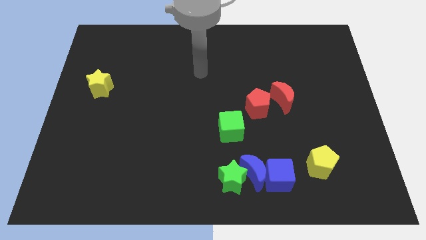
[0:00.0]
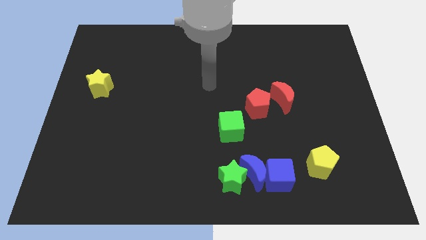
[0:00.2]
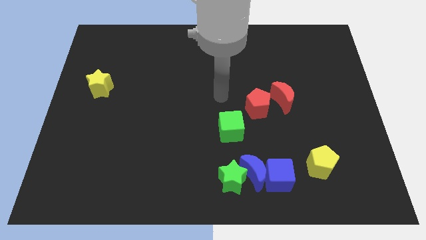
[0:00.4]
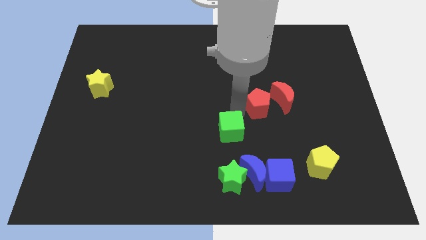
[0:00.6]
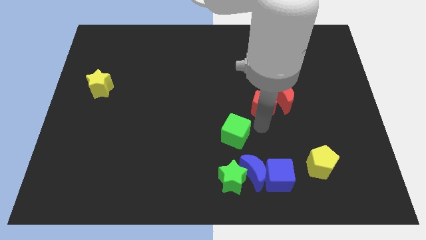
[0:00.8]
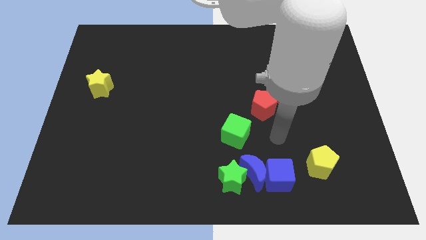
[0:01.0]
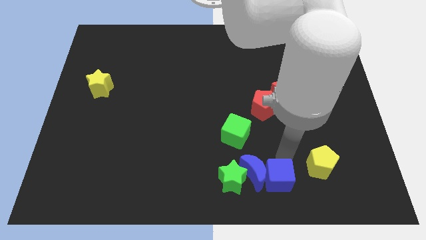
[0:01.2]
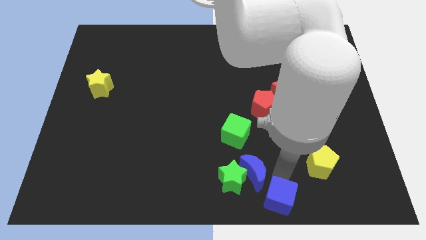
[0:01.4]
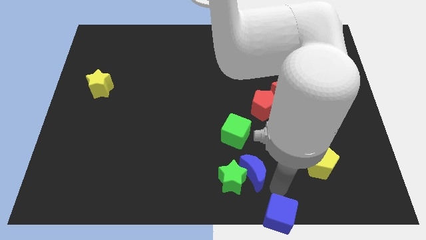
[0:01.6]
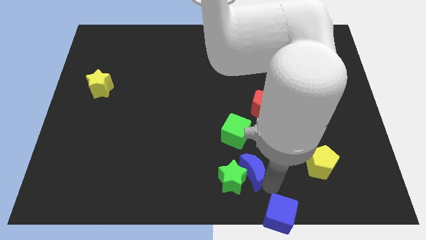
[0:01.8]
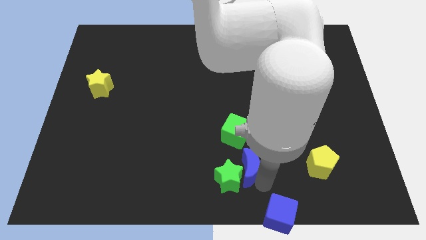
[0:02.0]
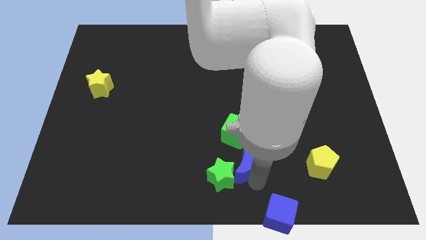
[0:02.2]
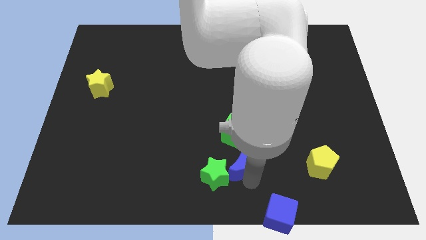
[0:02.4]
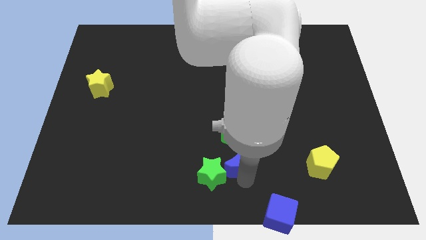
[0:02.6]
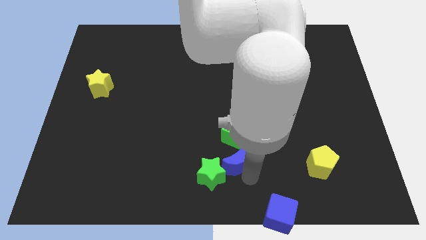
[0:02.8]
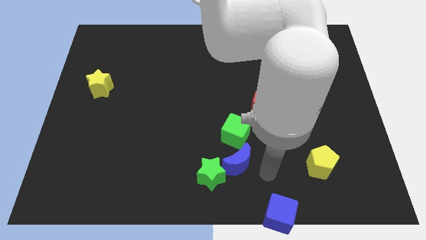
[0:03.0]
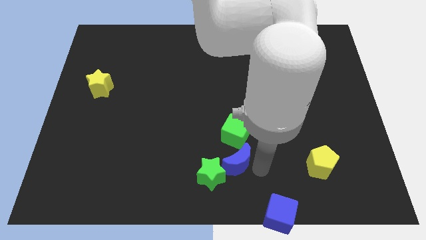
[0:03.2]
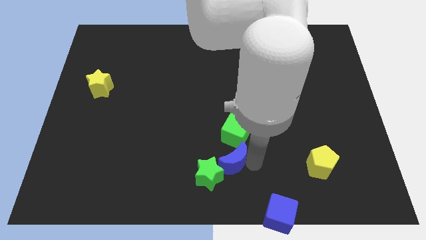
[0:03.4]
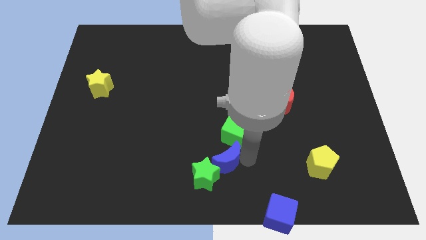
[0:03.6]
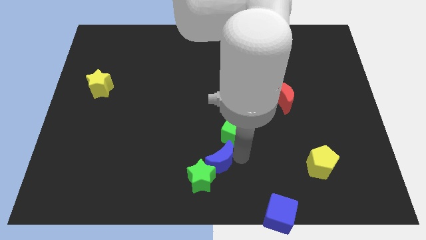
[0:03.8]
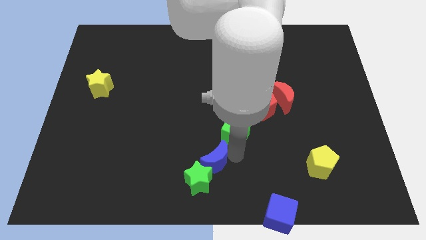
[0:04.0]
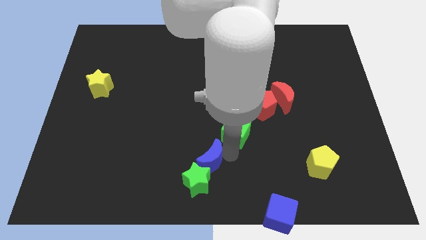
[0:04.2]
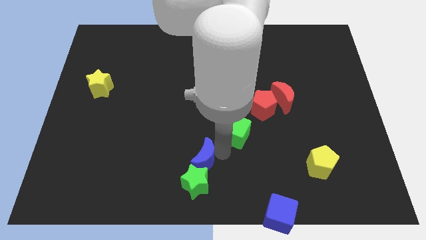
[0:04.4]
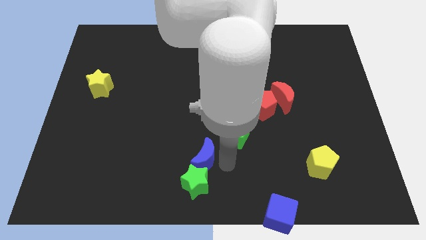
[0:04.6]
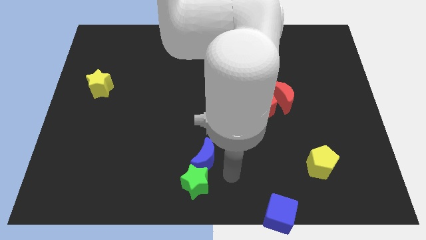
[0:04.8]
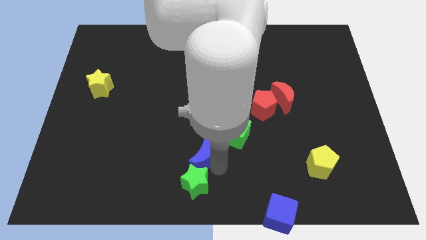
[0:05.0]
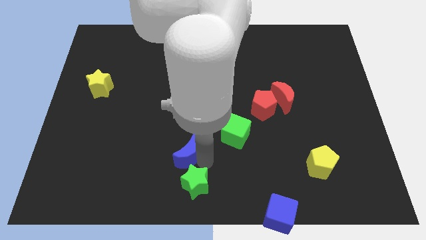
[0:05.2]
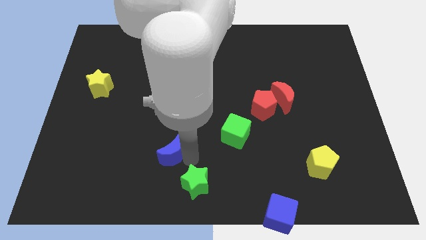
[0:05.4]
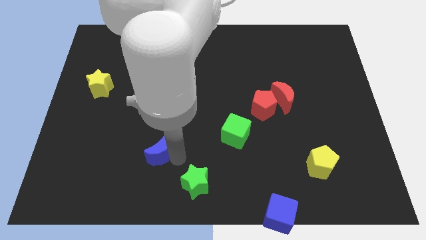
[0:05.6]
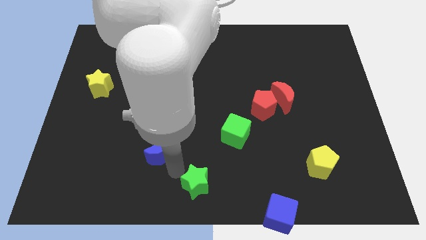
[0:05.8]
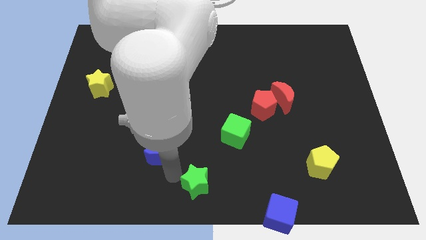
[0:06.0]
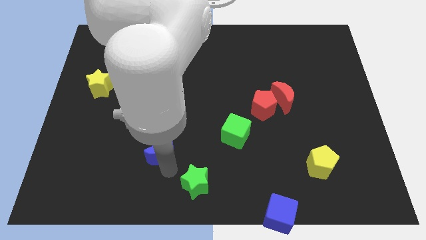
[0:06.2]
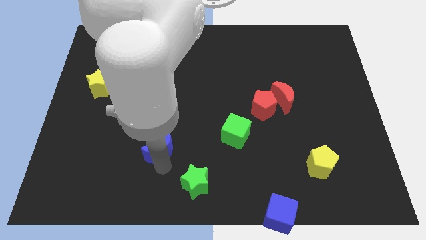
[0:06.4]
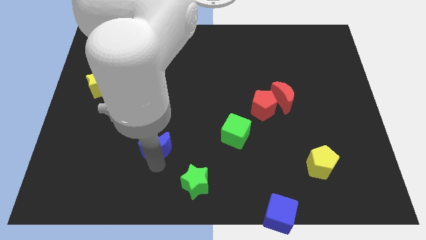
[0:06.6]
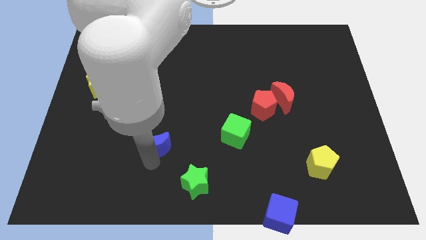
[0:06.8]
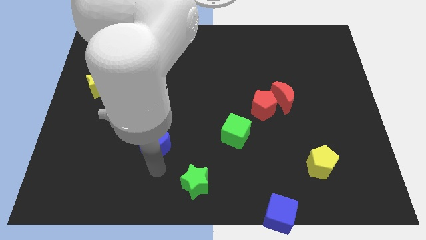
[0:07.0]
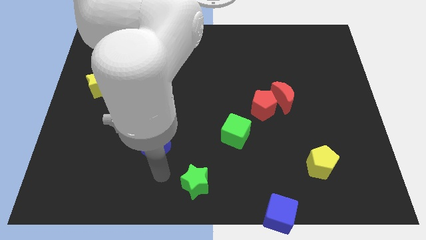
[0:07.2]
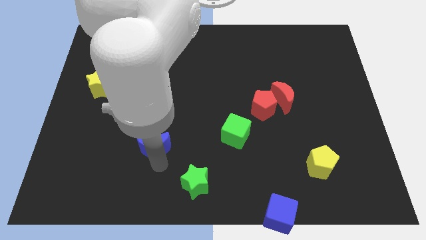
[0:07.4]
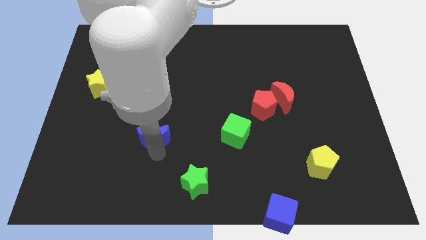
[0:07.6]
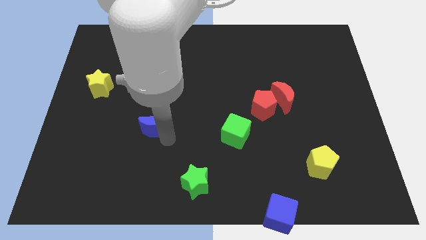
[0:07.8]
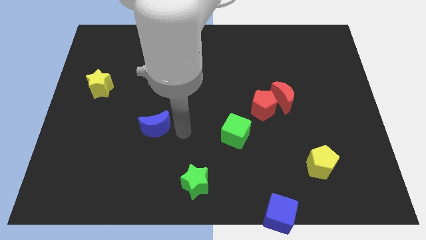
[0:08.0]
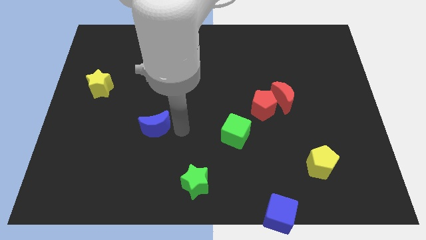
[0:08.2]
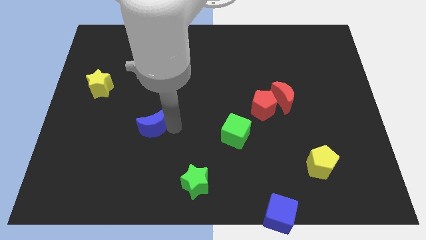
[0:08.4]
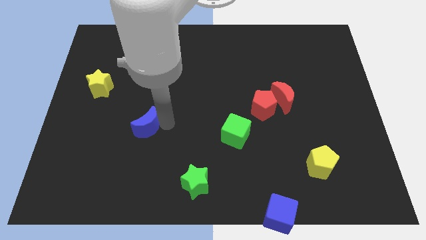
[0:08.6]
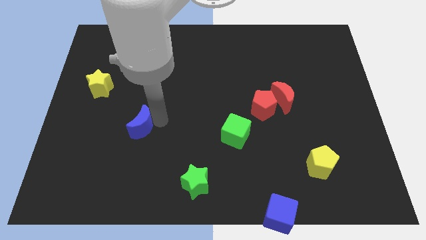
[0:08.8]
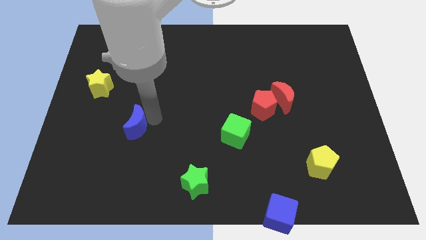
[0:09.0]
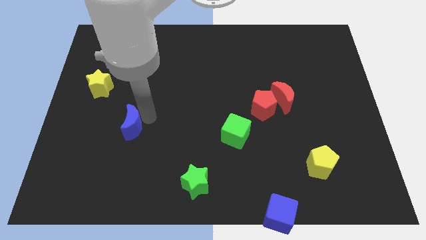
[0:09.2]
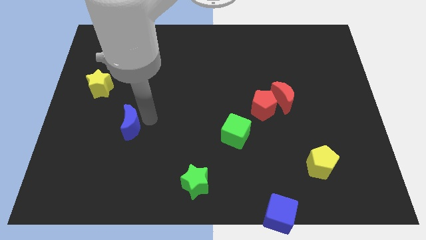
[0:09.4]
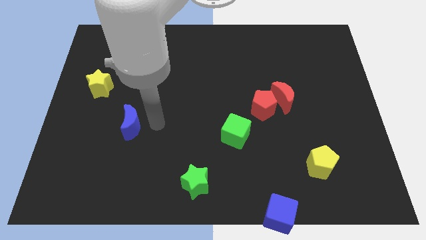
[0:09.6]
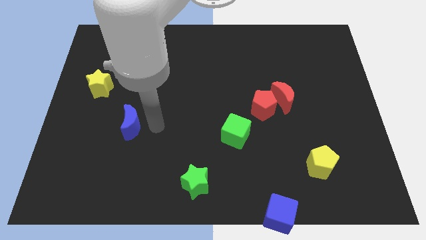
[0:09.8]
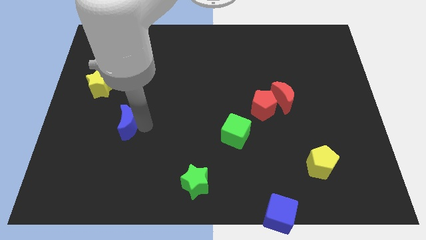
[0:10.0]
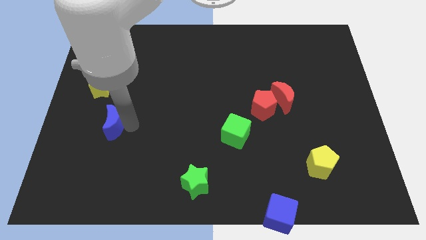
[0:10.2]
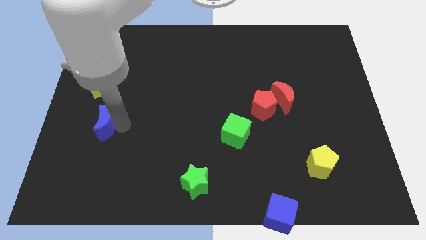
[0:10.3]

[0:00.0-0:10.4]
move the blue moon below the yellow star

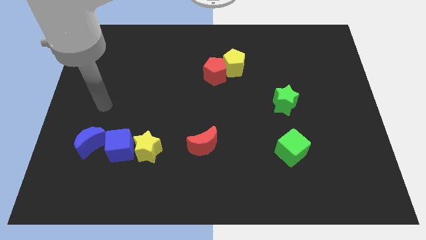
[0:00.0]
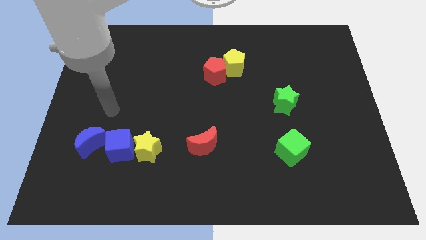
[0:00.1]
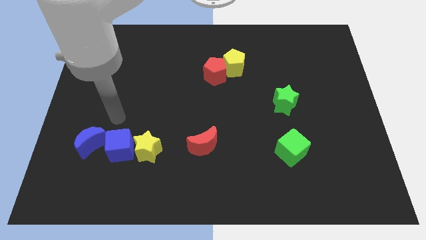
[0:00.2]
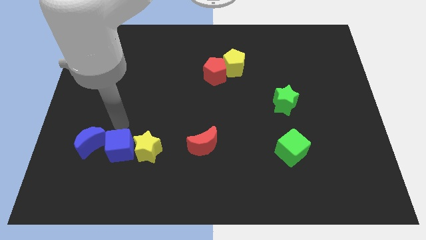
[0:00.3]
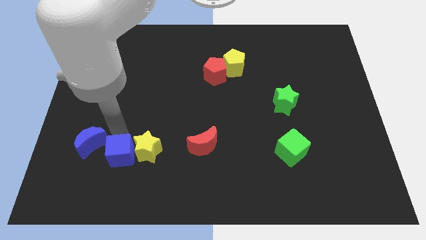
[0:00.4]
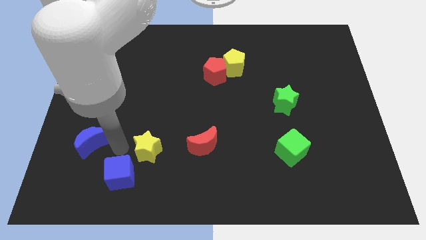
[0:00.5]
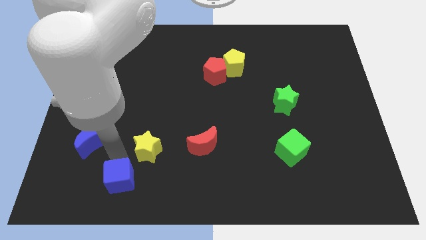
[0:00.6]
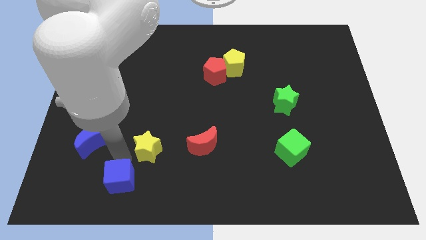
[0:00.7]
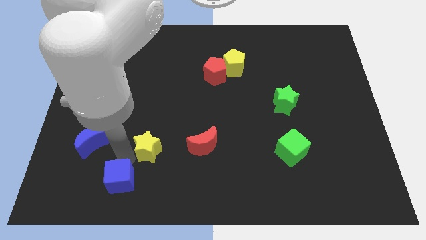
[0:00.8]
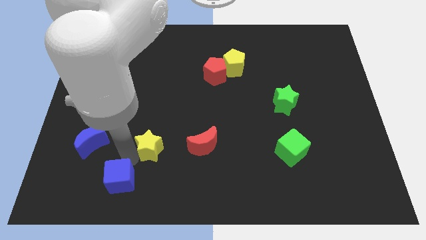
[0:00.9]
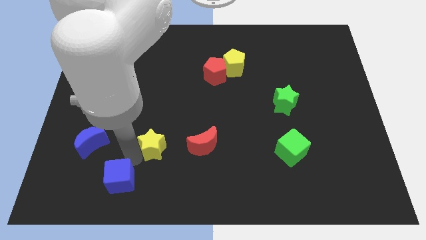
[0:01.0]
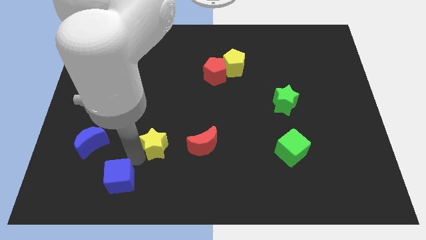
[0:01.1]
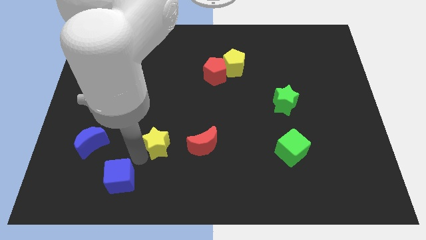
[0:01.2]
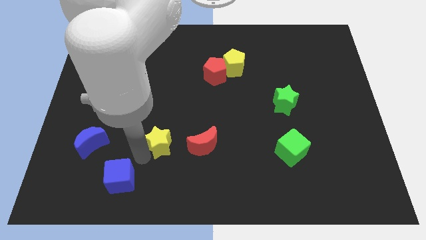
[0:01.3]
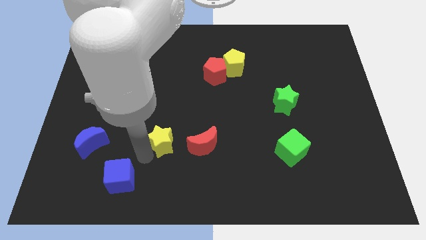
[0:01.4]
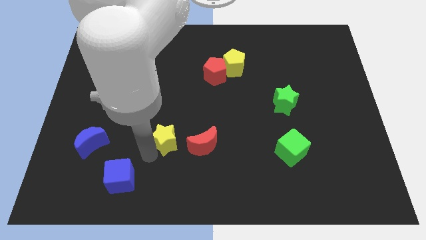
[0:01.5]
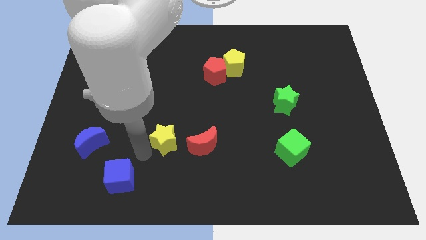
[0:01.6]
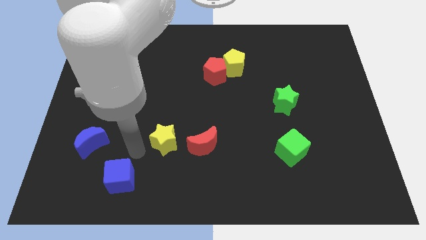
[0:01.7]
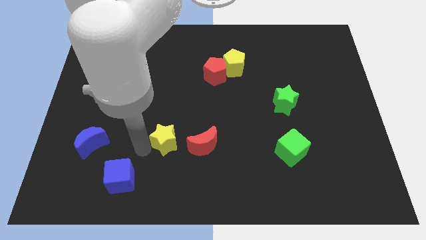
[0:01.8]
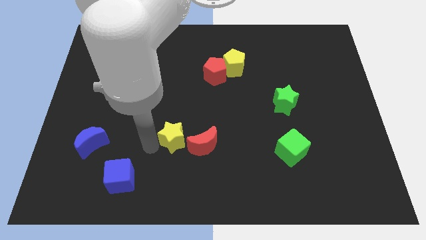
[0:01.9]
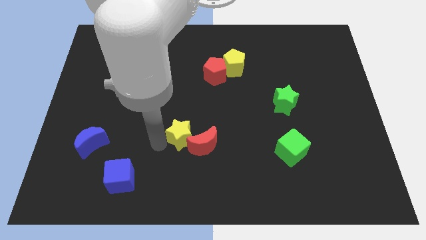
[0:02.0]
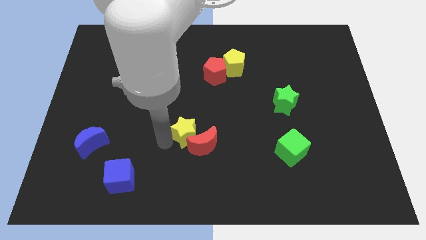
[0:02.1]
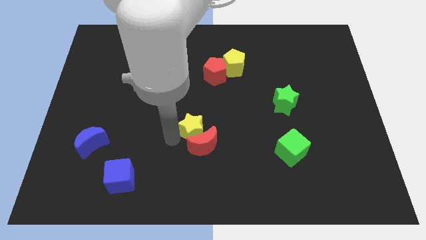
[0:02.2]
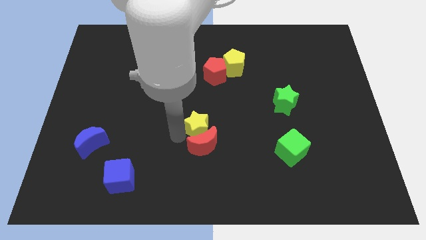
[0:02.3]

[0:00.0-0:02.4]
push the yellow star diagonally up and to the right of the red moon
